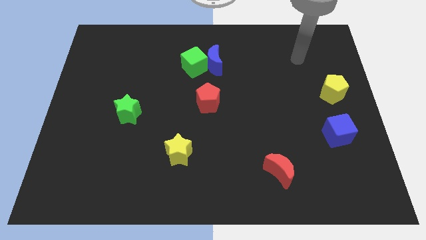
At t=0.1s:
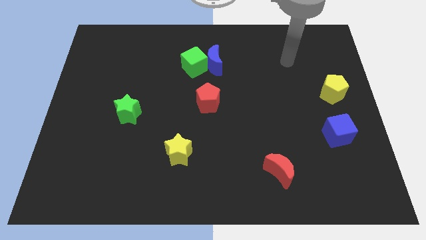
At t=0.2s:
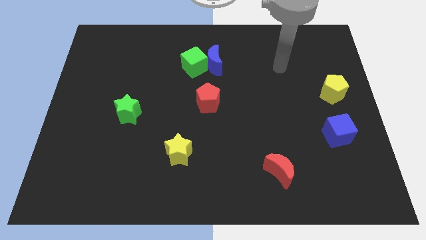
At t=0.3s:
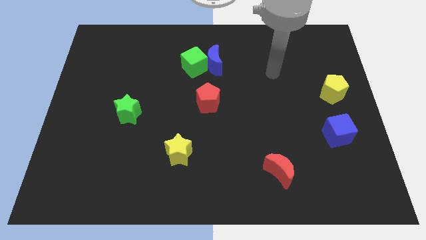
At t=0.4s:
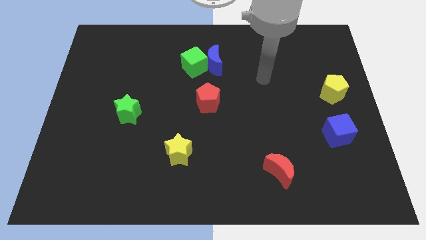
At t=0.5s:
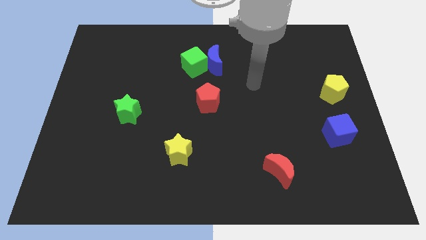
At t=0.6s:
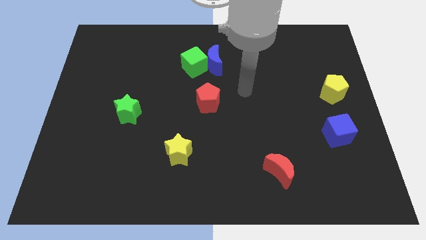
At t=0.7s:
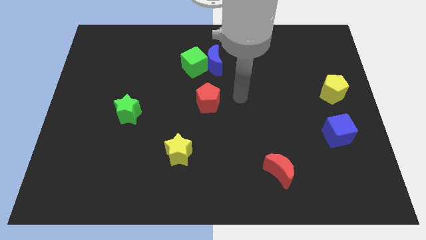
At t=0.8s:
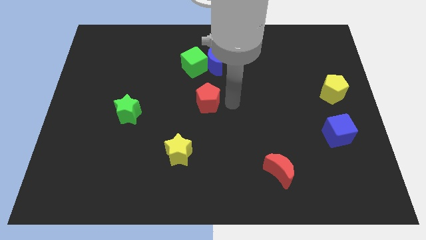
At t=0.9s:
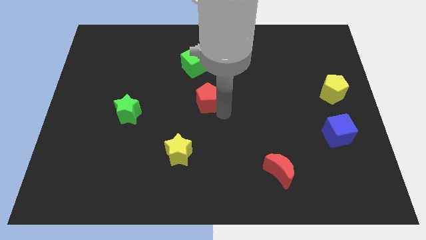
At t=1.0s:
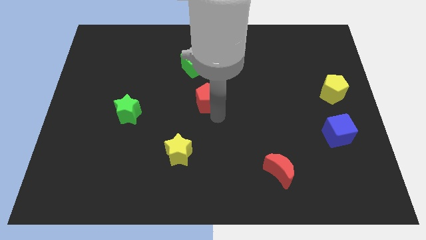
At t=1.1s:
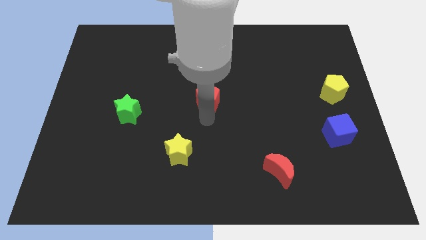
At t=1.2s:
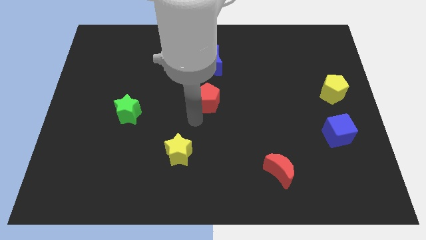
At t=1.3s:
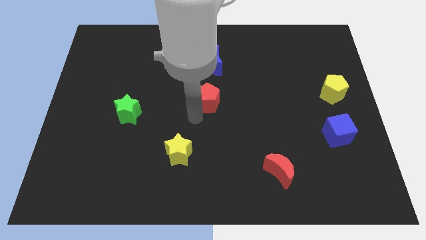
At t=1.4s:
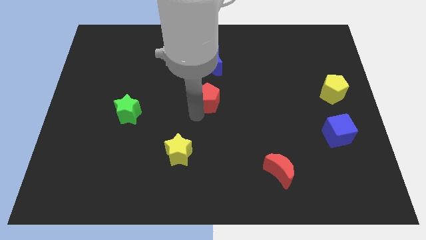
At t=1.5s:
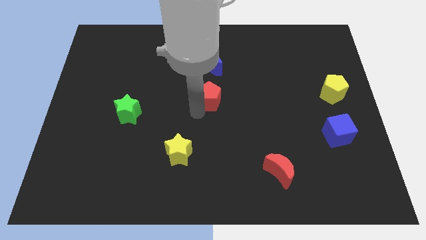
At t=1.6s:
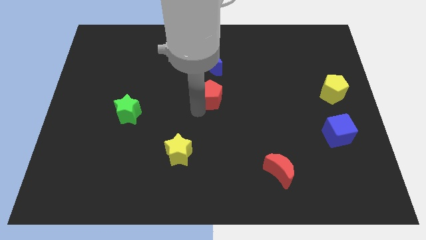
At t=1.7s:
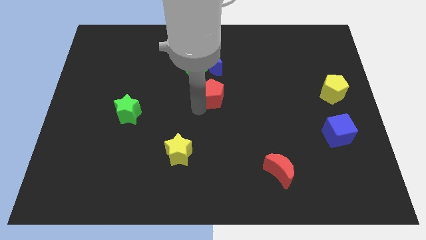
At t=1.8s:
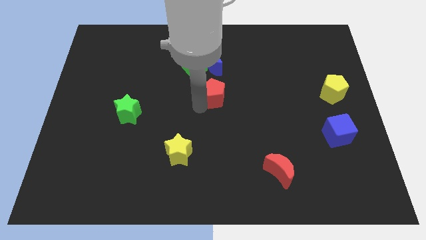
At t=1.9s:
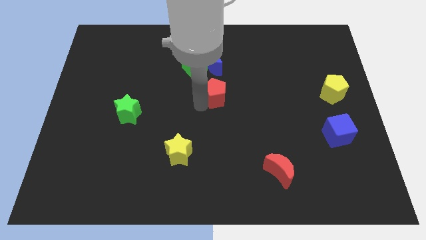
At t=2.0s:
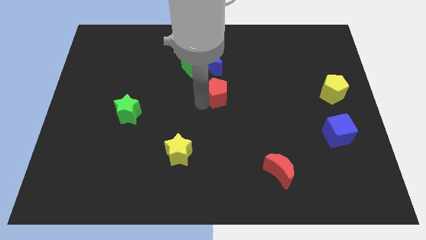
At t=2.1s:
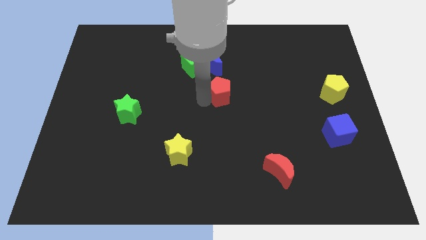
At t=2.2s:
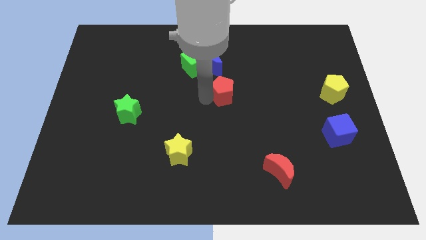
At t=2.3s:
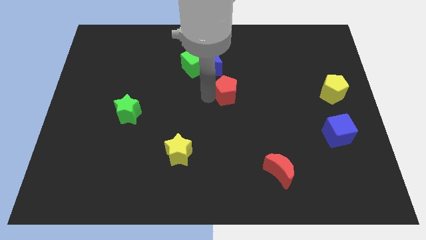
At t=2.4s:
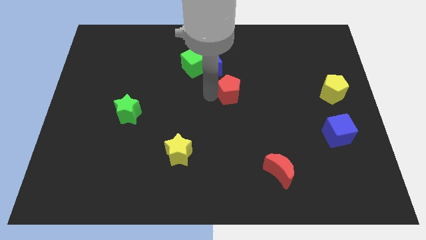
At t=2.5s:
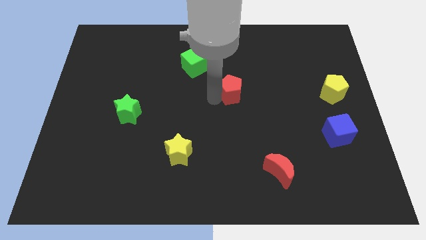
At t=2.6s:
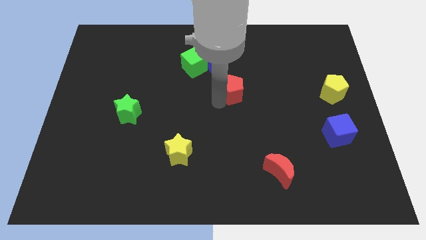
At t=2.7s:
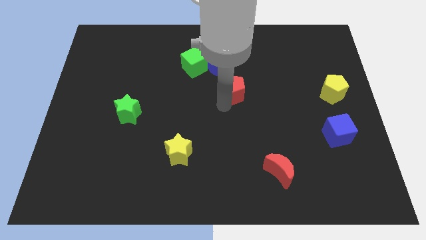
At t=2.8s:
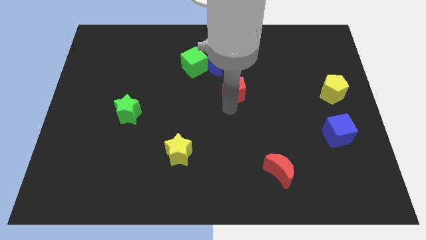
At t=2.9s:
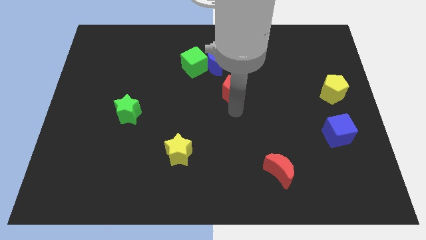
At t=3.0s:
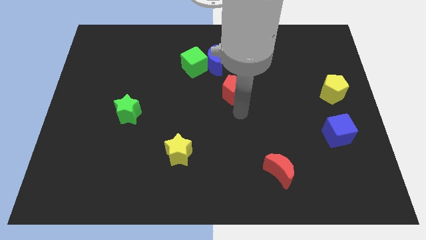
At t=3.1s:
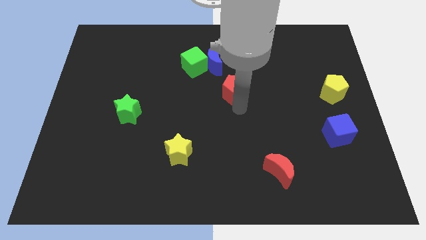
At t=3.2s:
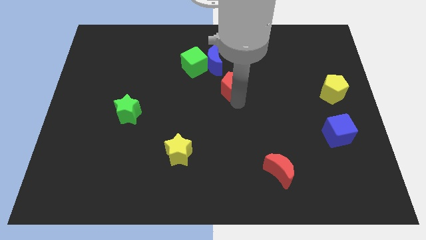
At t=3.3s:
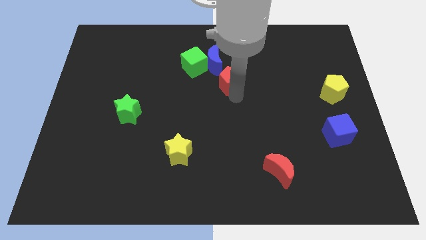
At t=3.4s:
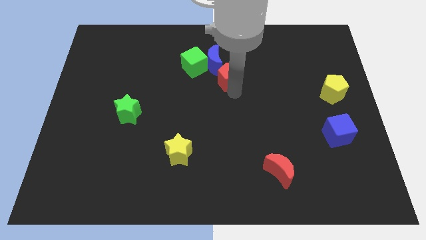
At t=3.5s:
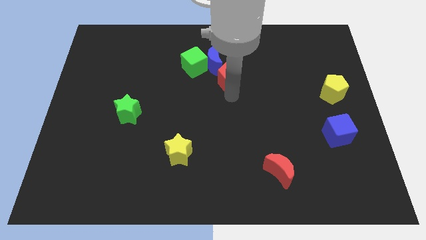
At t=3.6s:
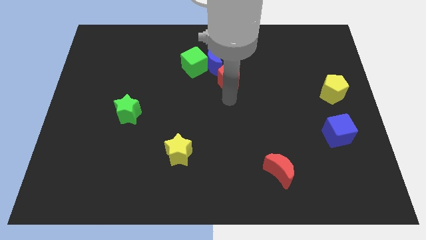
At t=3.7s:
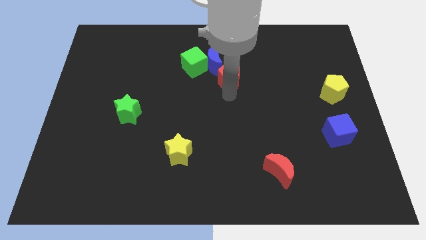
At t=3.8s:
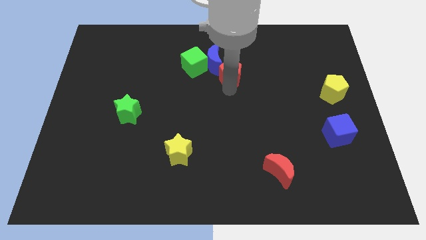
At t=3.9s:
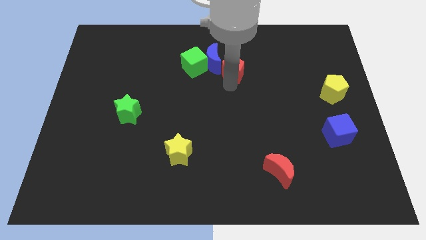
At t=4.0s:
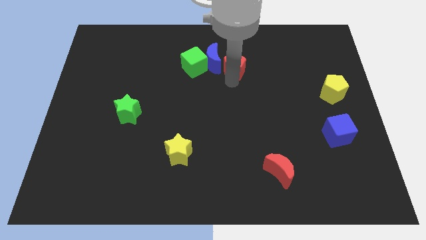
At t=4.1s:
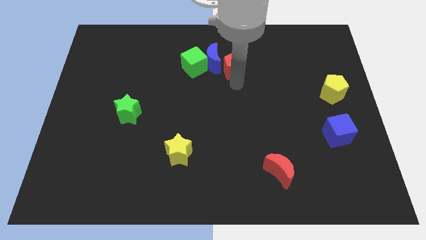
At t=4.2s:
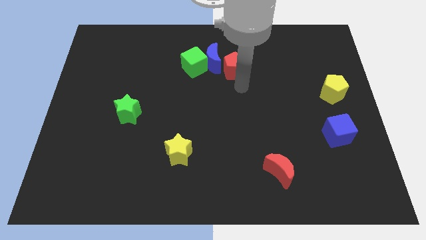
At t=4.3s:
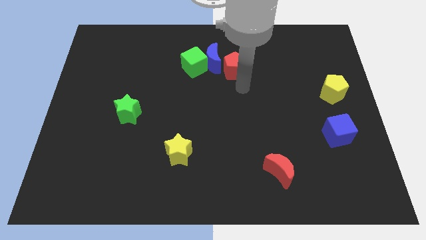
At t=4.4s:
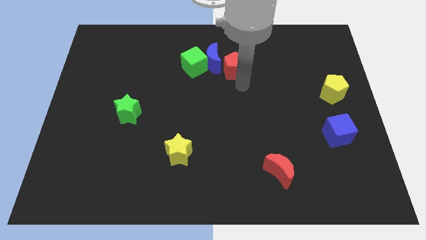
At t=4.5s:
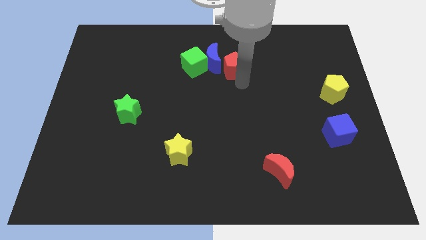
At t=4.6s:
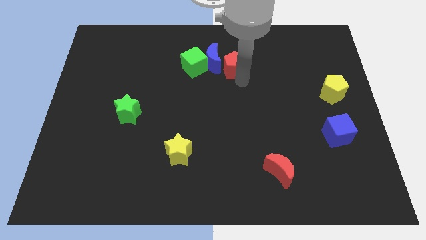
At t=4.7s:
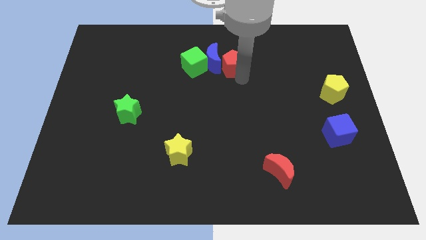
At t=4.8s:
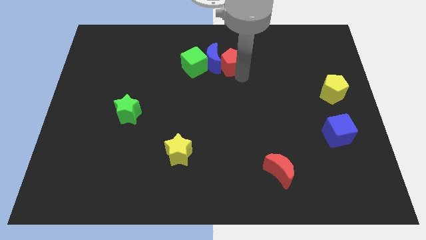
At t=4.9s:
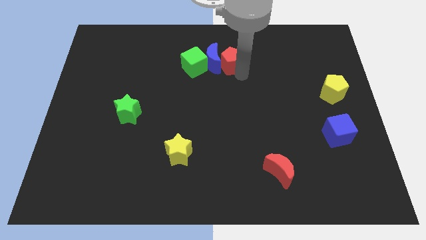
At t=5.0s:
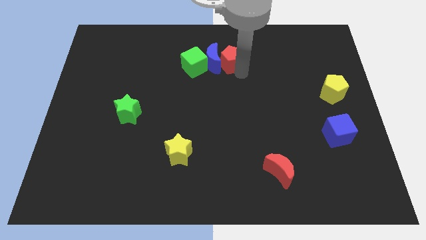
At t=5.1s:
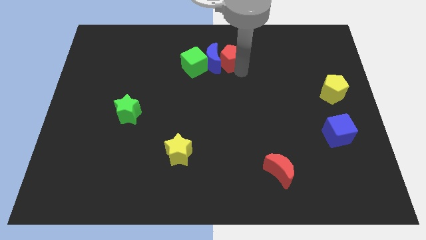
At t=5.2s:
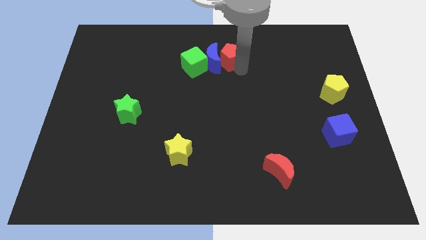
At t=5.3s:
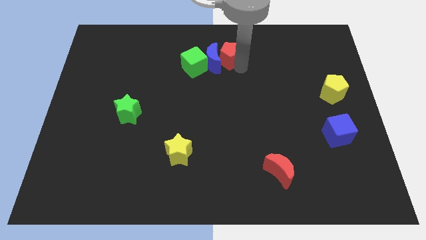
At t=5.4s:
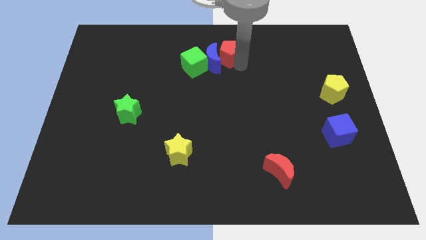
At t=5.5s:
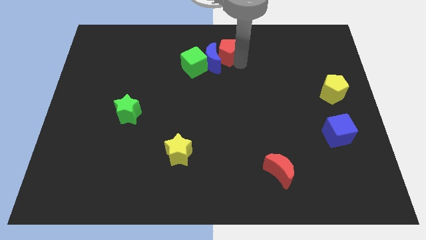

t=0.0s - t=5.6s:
move the red pentagon to the top side

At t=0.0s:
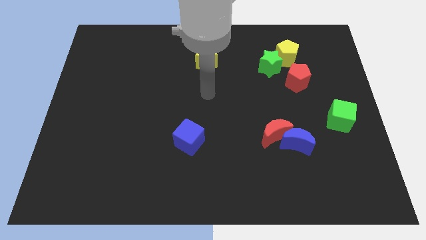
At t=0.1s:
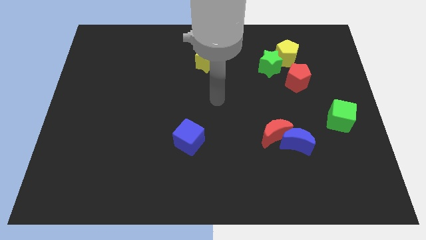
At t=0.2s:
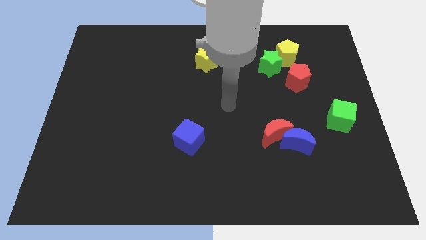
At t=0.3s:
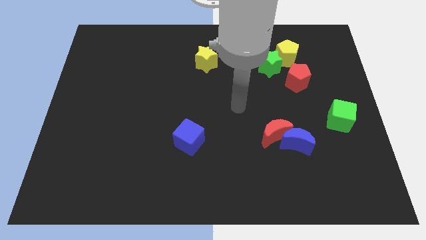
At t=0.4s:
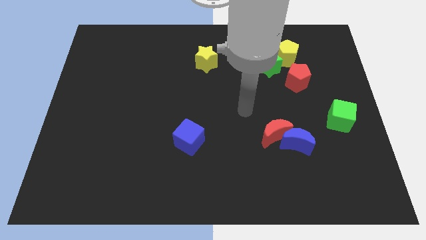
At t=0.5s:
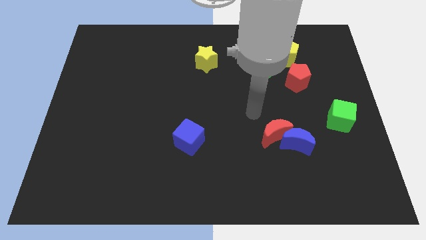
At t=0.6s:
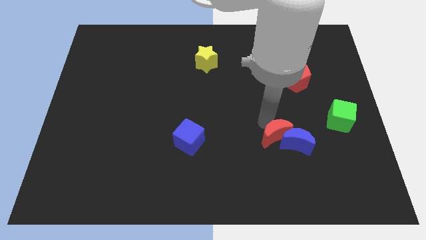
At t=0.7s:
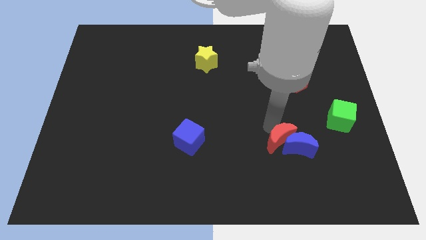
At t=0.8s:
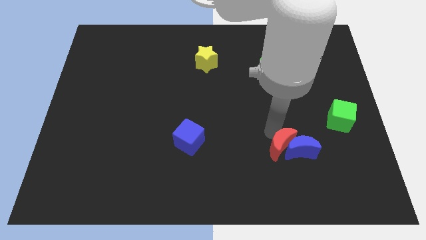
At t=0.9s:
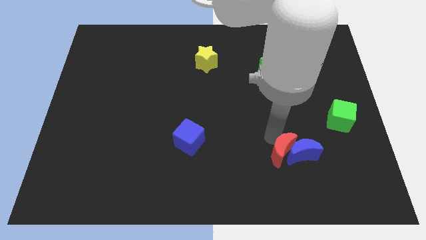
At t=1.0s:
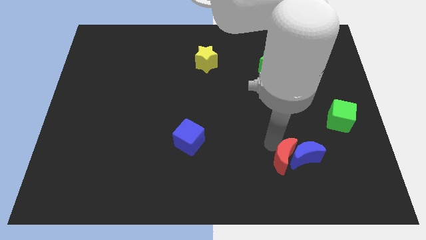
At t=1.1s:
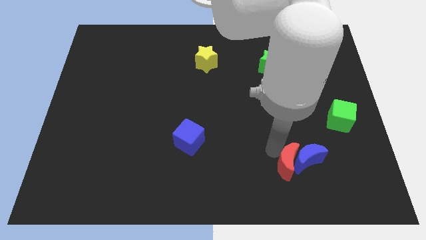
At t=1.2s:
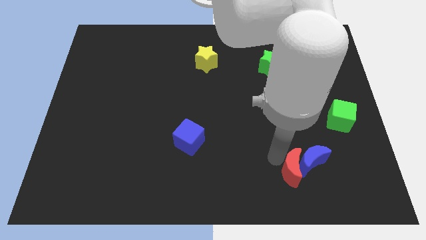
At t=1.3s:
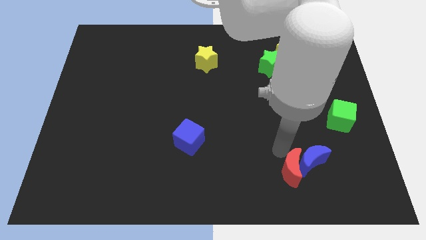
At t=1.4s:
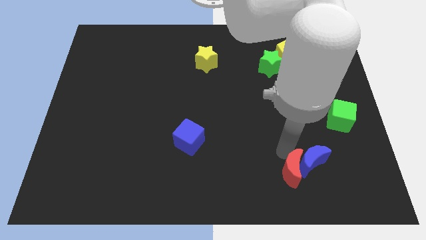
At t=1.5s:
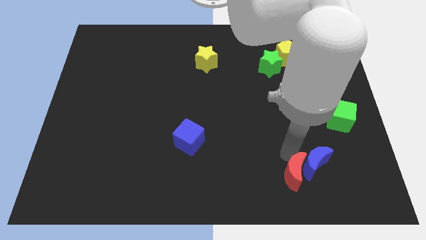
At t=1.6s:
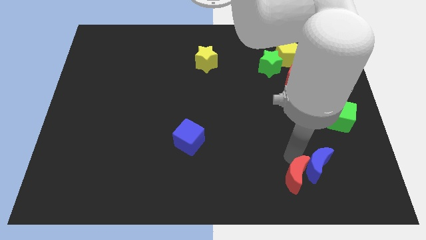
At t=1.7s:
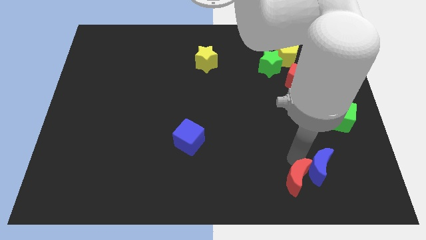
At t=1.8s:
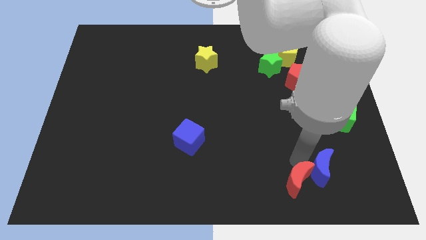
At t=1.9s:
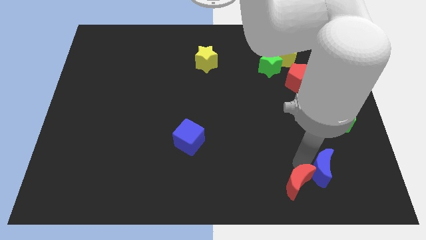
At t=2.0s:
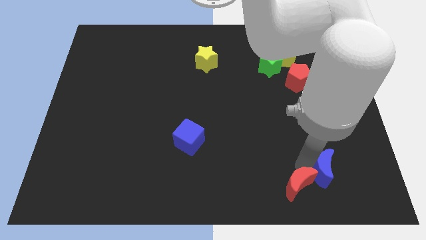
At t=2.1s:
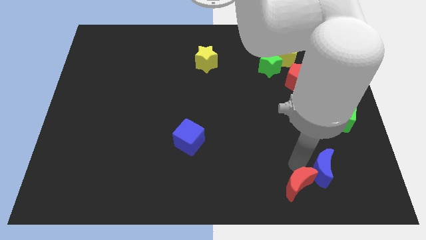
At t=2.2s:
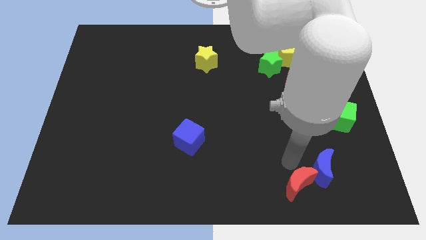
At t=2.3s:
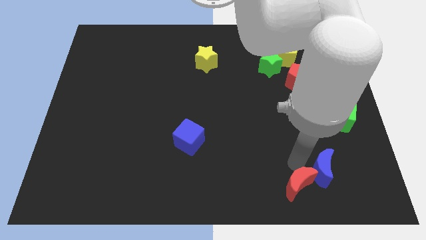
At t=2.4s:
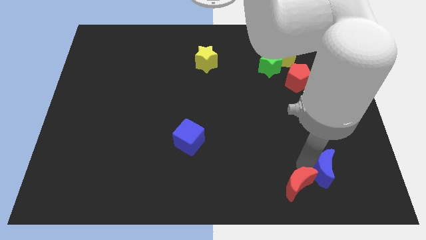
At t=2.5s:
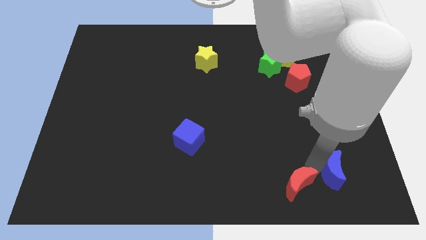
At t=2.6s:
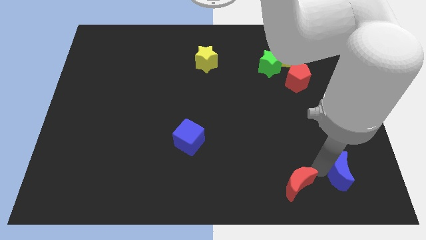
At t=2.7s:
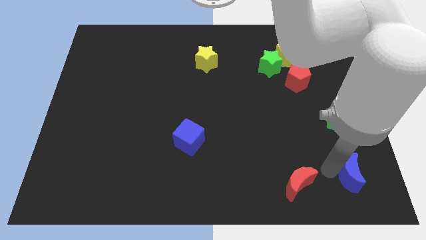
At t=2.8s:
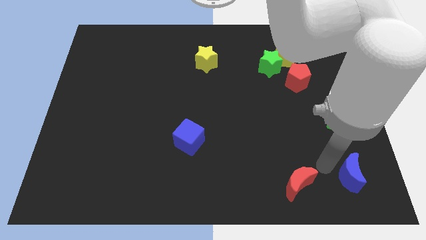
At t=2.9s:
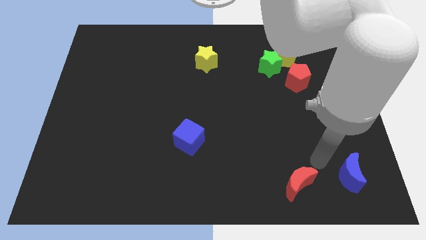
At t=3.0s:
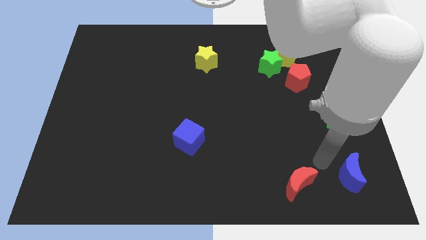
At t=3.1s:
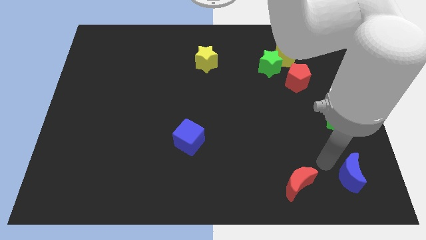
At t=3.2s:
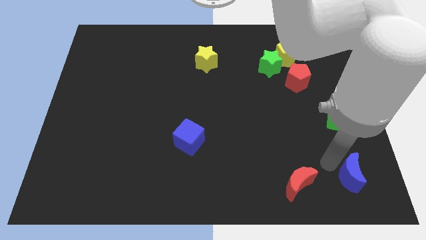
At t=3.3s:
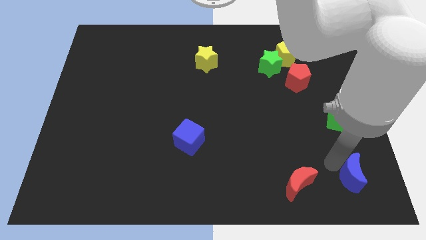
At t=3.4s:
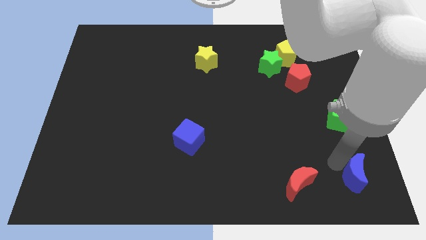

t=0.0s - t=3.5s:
slide the blue moon to the lower right corner
